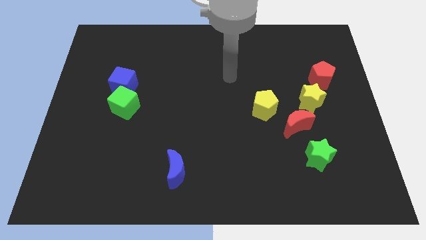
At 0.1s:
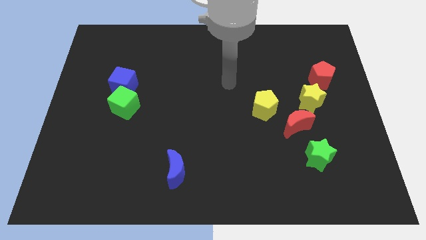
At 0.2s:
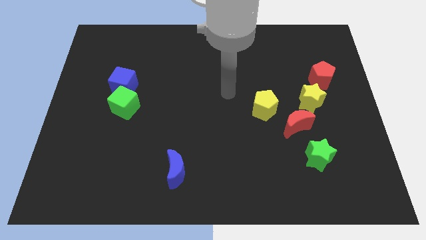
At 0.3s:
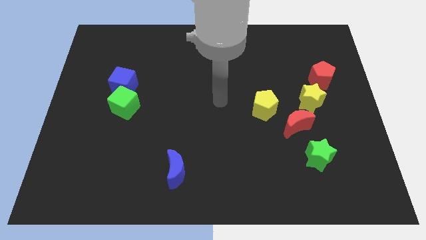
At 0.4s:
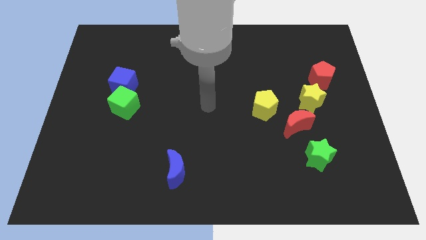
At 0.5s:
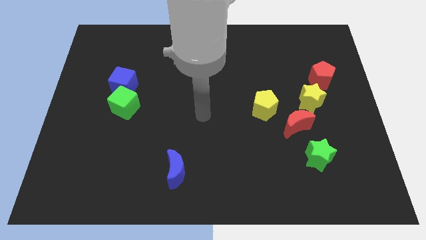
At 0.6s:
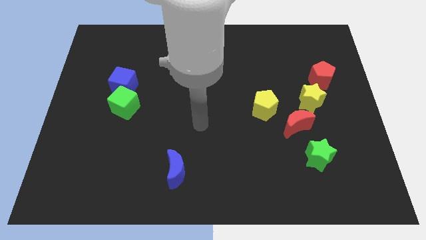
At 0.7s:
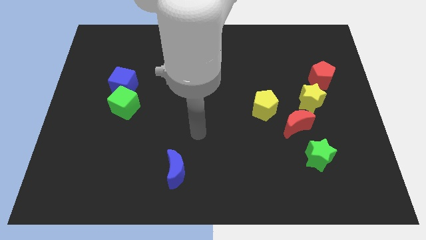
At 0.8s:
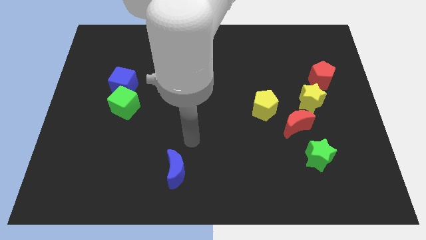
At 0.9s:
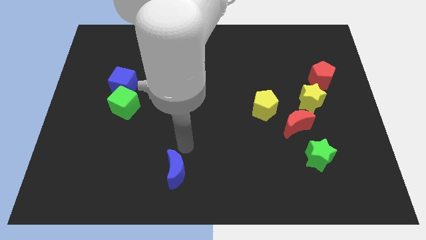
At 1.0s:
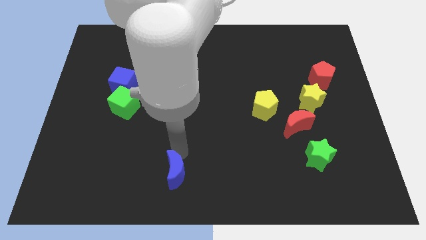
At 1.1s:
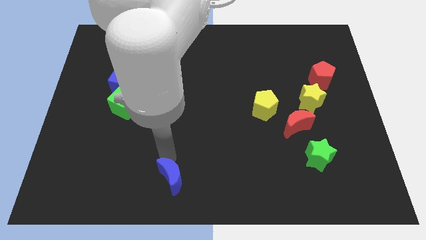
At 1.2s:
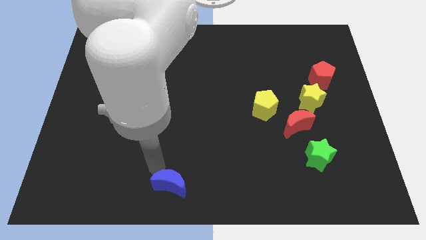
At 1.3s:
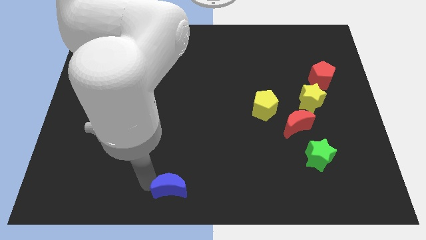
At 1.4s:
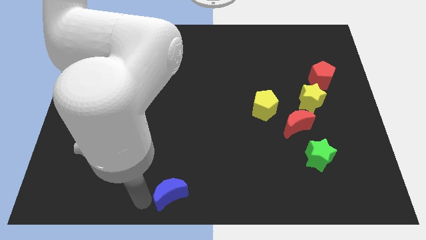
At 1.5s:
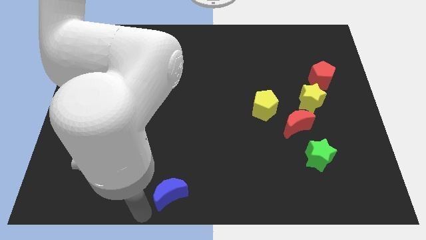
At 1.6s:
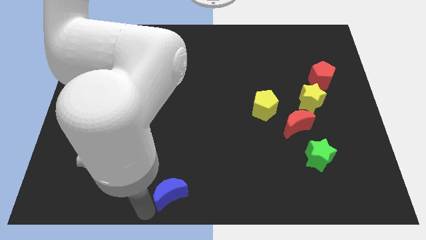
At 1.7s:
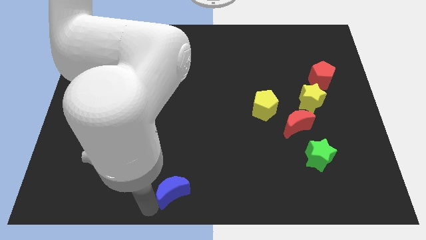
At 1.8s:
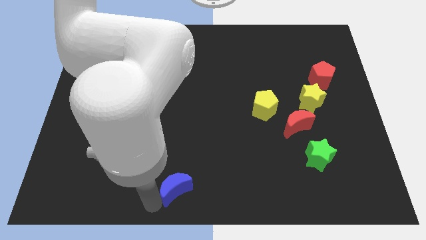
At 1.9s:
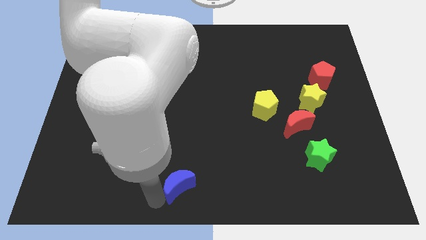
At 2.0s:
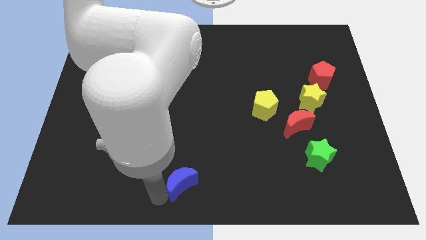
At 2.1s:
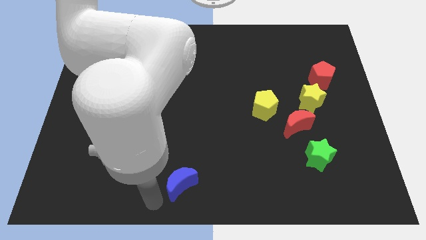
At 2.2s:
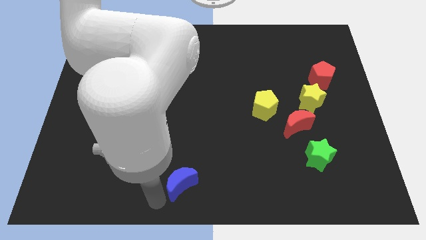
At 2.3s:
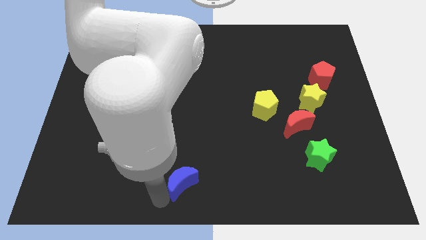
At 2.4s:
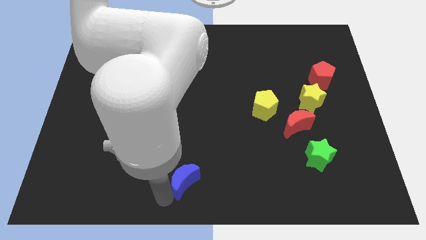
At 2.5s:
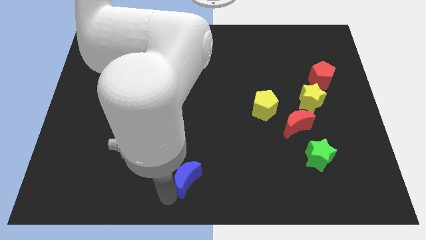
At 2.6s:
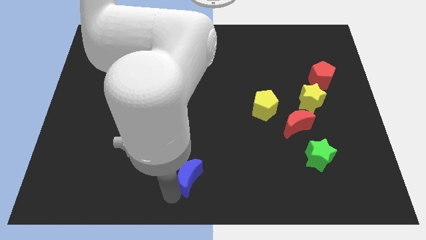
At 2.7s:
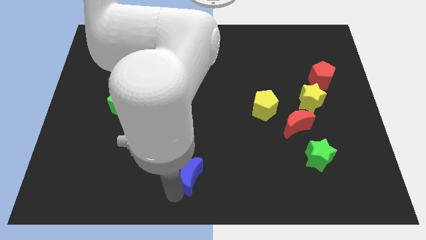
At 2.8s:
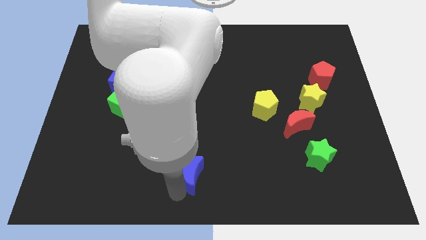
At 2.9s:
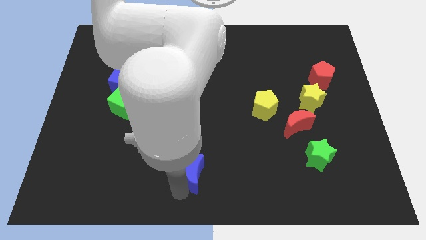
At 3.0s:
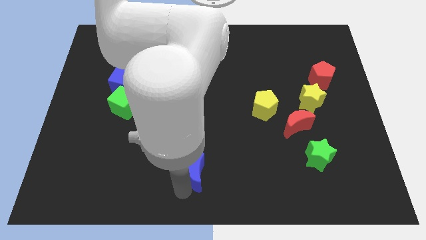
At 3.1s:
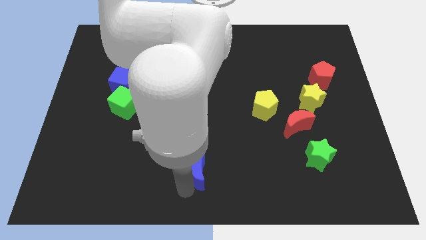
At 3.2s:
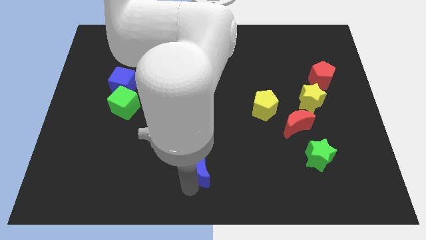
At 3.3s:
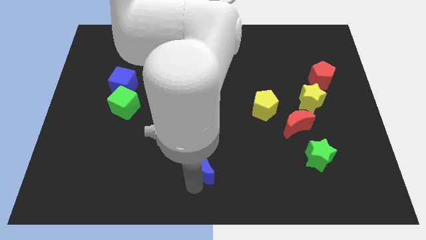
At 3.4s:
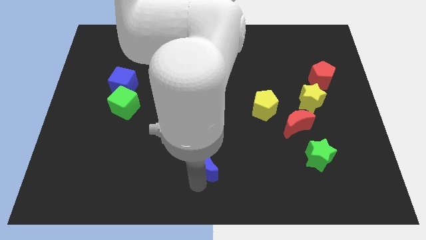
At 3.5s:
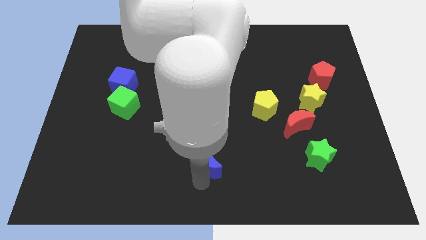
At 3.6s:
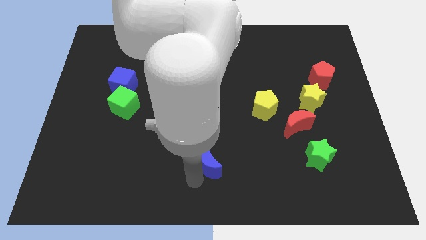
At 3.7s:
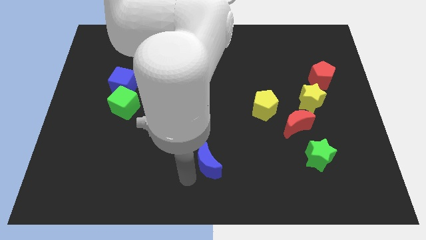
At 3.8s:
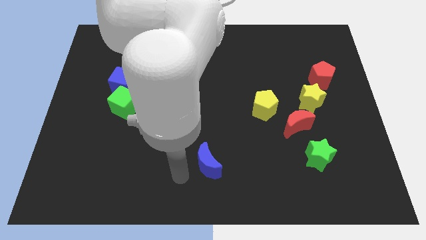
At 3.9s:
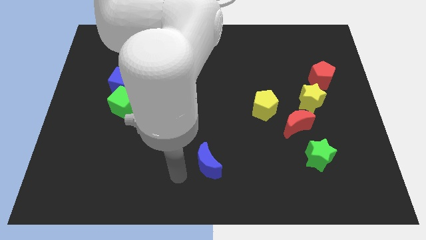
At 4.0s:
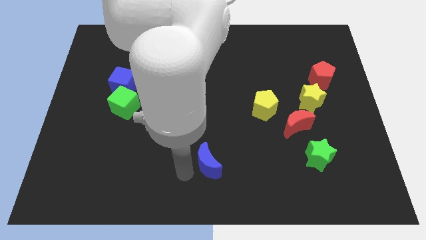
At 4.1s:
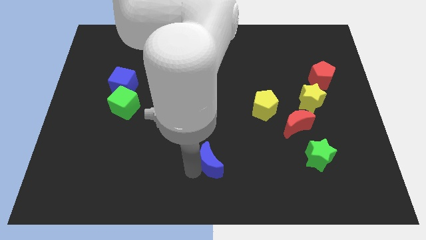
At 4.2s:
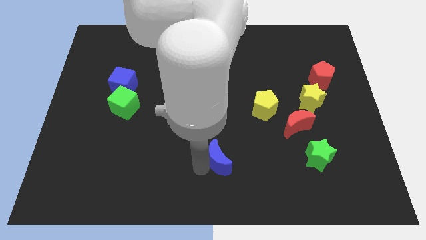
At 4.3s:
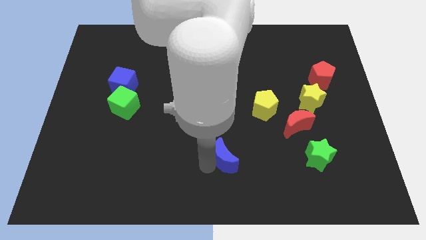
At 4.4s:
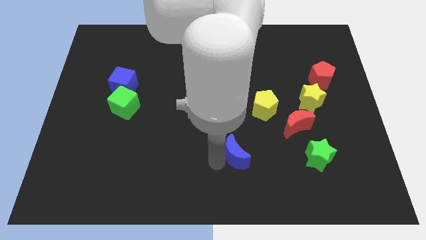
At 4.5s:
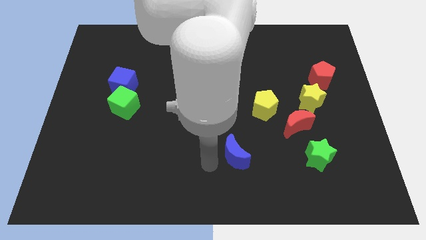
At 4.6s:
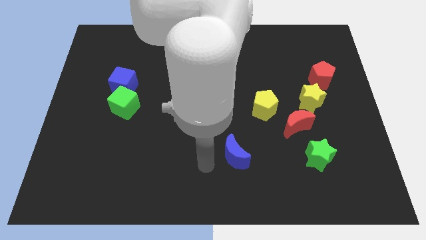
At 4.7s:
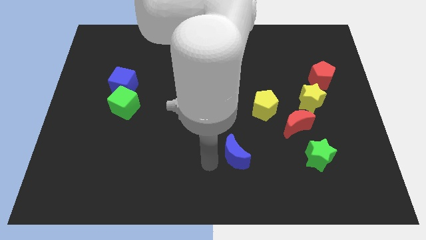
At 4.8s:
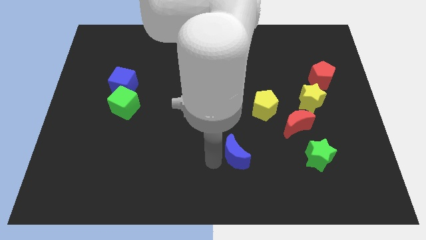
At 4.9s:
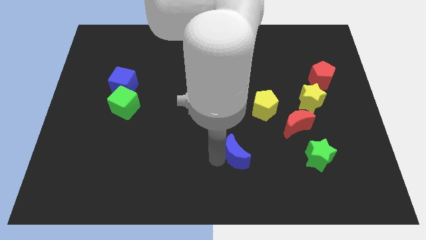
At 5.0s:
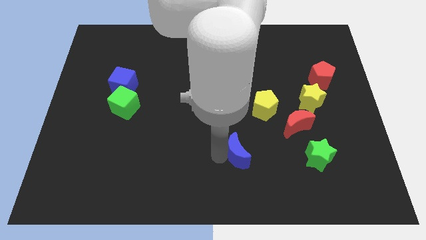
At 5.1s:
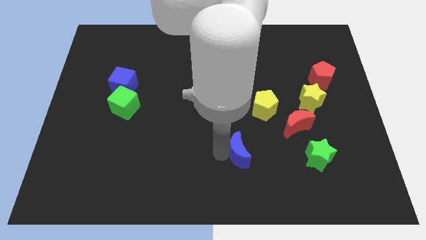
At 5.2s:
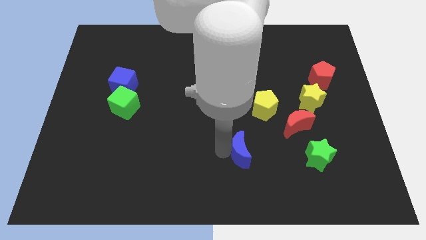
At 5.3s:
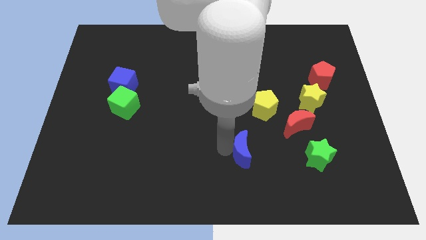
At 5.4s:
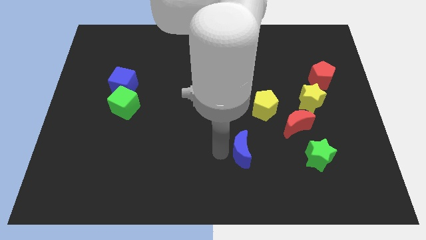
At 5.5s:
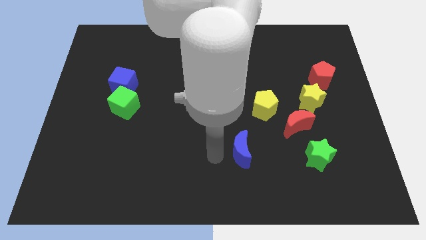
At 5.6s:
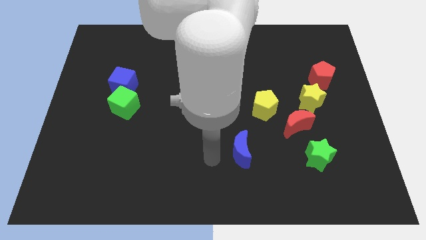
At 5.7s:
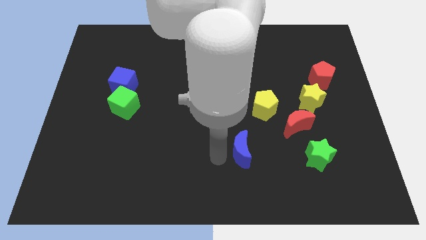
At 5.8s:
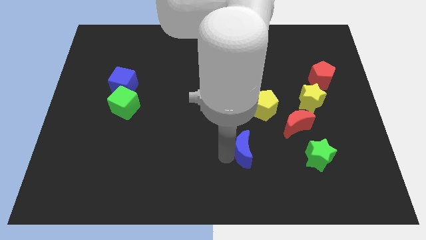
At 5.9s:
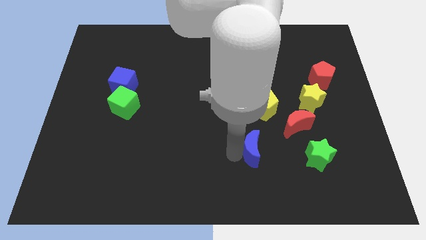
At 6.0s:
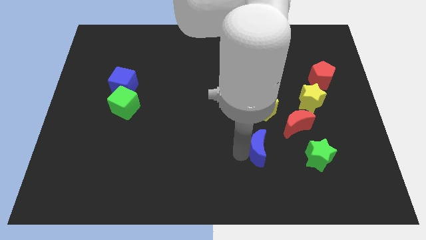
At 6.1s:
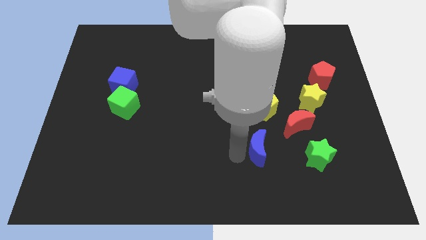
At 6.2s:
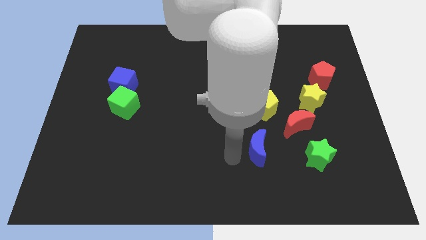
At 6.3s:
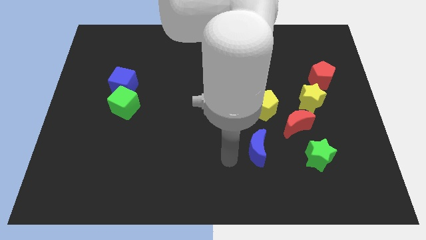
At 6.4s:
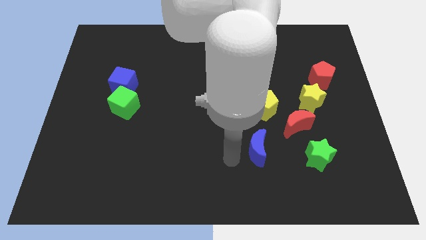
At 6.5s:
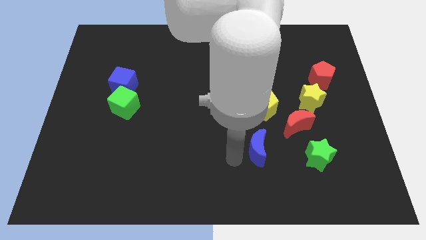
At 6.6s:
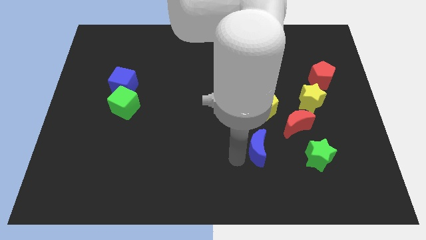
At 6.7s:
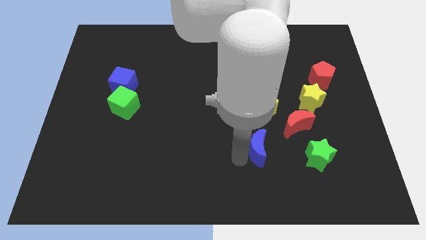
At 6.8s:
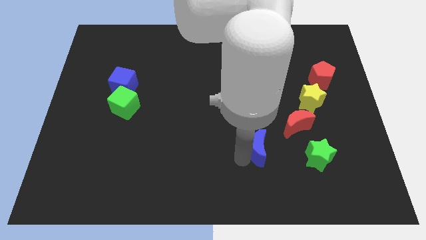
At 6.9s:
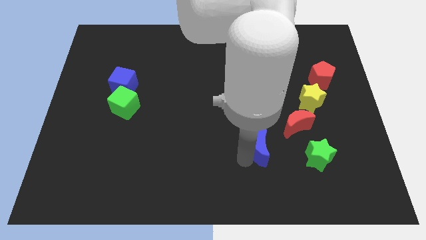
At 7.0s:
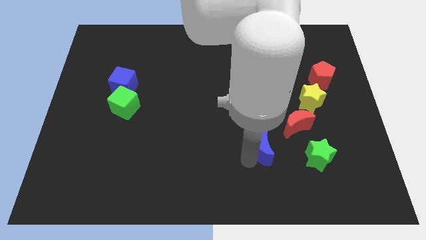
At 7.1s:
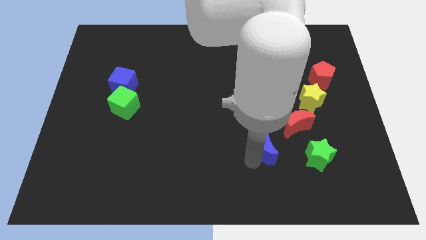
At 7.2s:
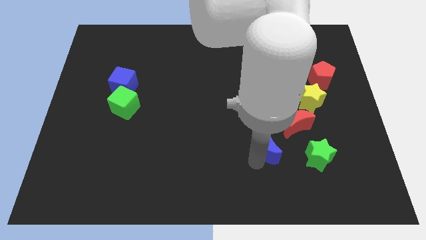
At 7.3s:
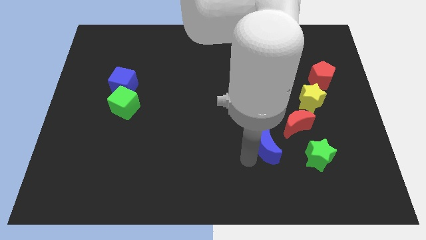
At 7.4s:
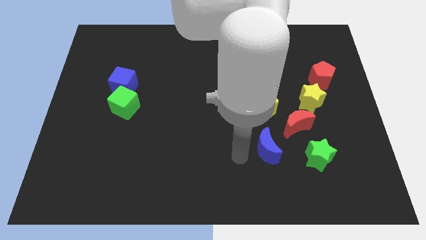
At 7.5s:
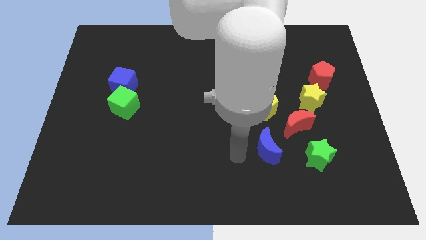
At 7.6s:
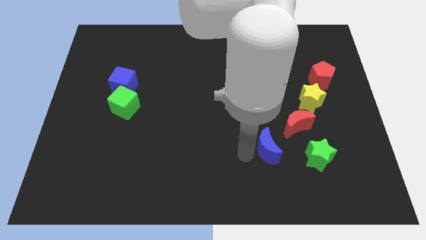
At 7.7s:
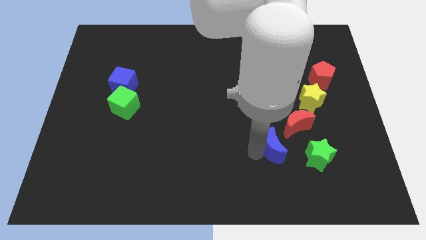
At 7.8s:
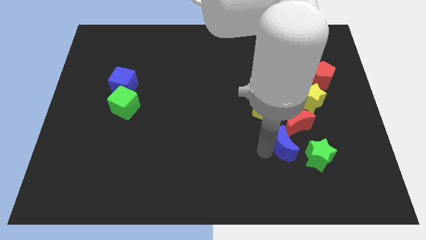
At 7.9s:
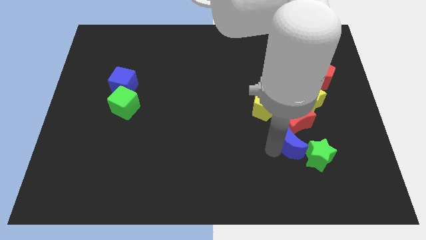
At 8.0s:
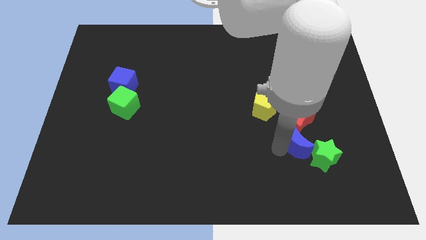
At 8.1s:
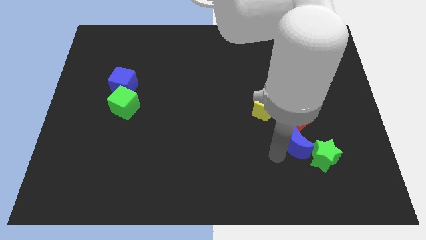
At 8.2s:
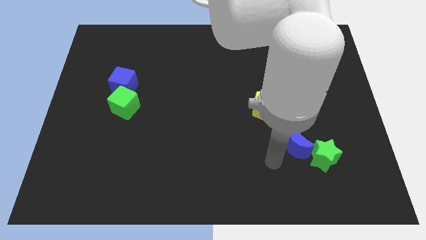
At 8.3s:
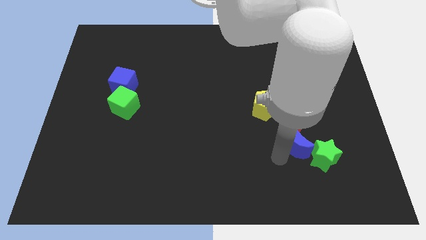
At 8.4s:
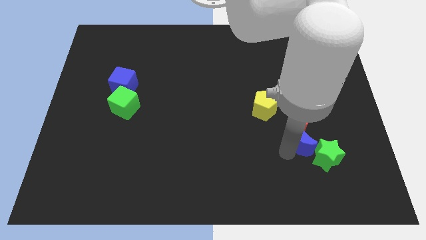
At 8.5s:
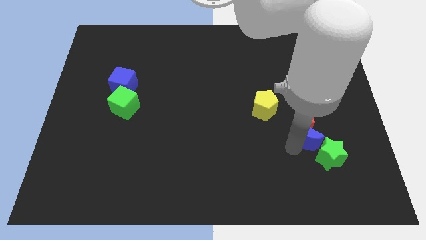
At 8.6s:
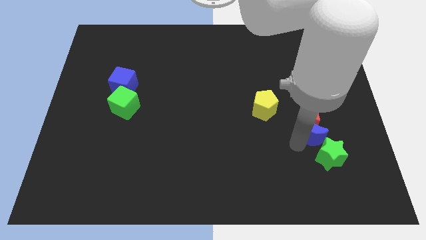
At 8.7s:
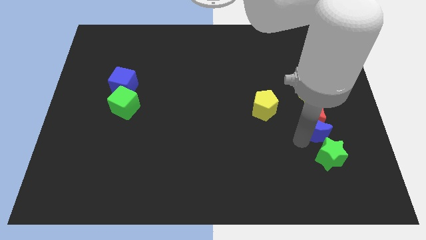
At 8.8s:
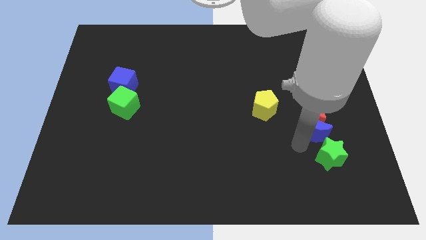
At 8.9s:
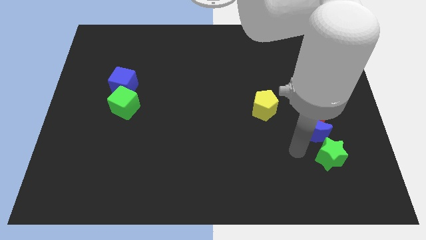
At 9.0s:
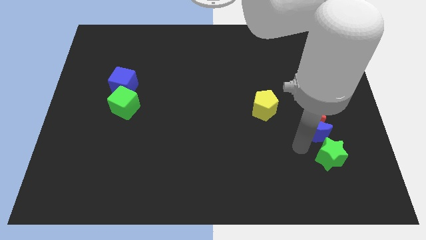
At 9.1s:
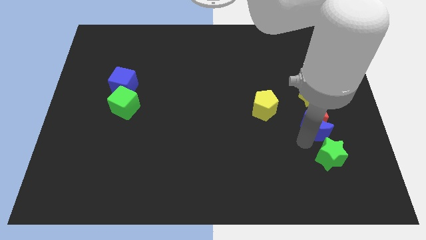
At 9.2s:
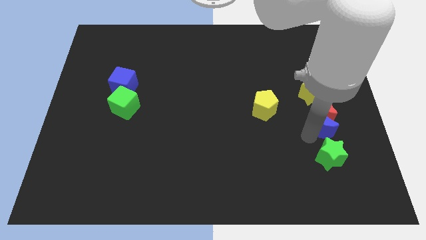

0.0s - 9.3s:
put the blue moon below the red pentagon
